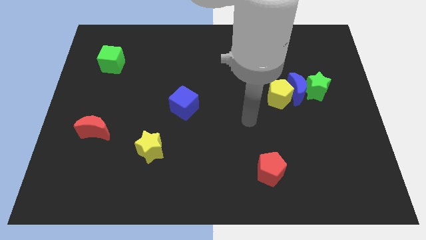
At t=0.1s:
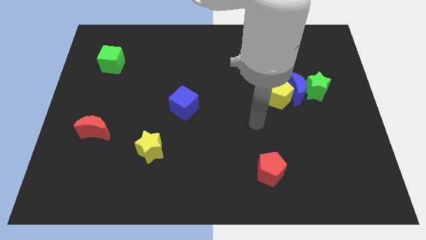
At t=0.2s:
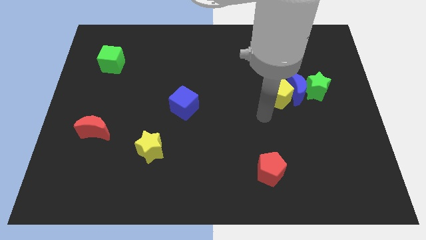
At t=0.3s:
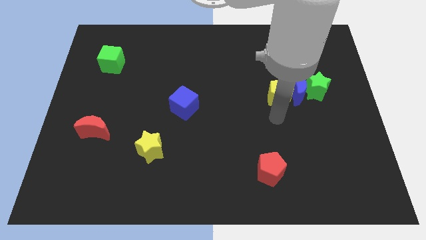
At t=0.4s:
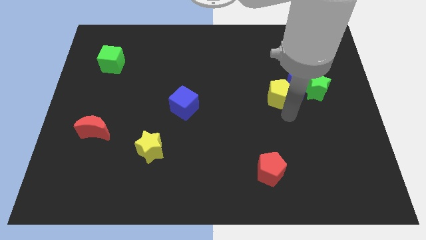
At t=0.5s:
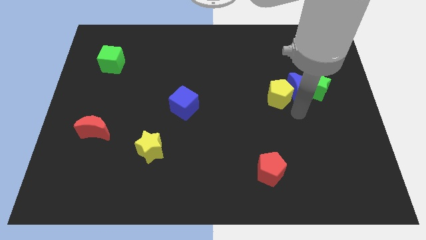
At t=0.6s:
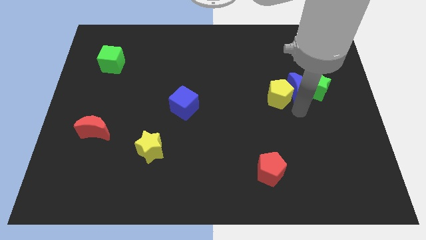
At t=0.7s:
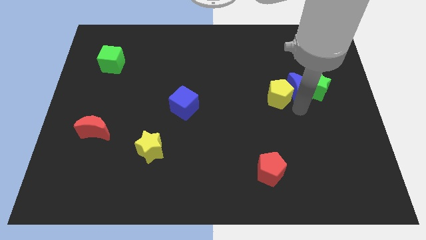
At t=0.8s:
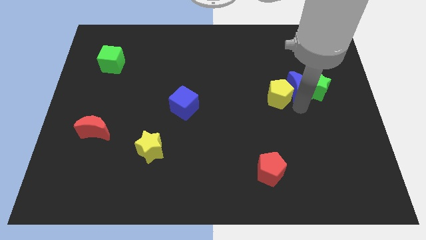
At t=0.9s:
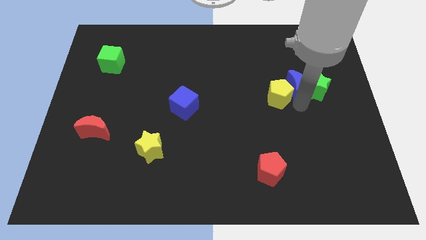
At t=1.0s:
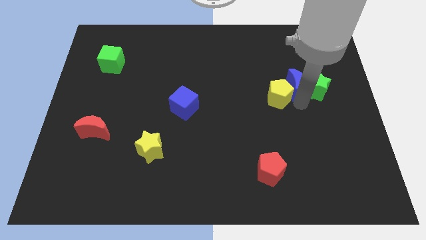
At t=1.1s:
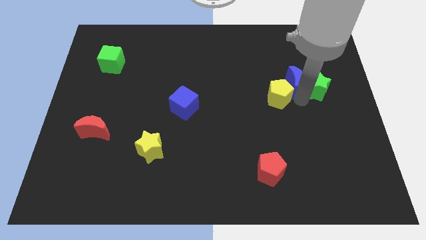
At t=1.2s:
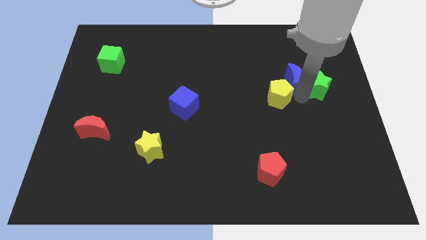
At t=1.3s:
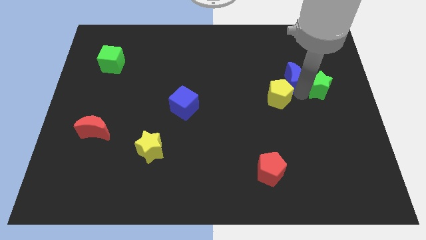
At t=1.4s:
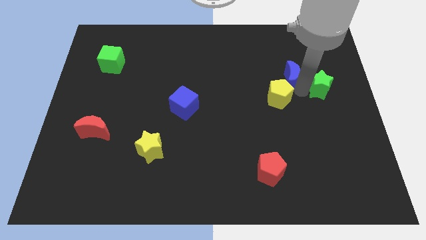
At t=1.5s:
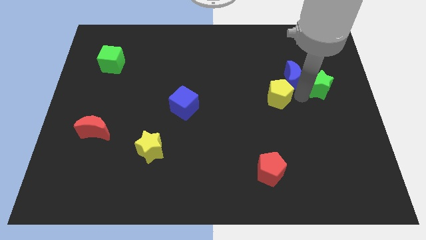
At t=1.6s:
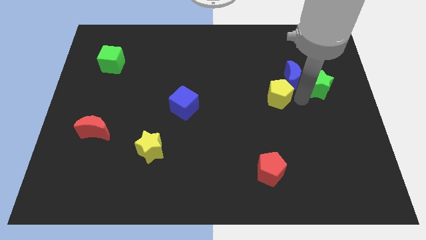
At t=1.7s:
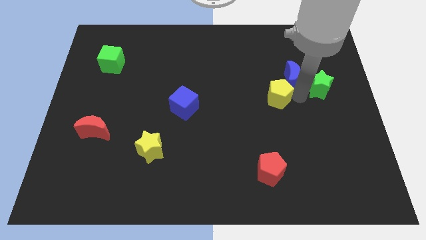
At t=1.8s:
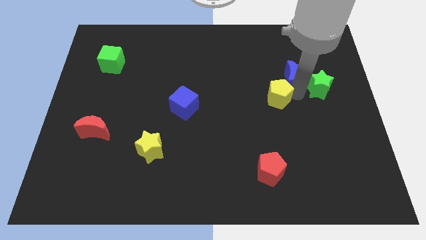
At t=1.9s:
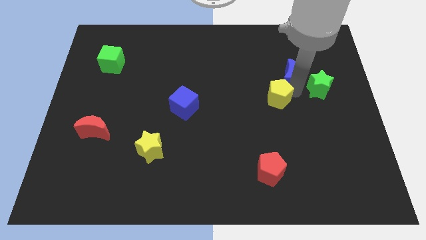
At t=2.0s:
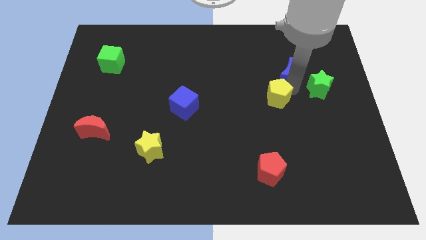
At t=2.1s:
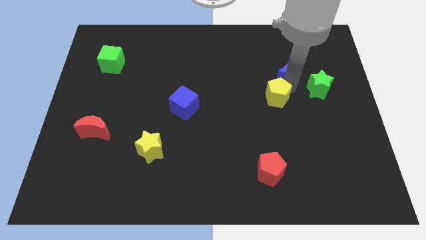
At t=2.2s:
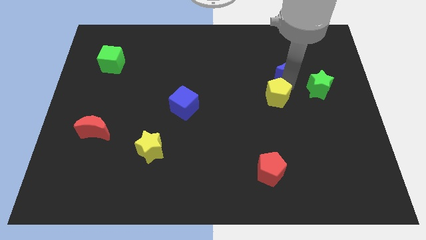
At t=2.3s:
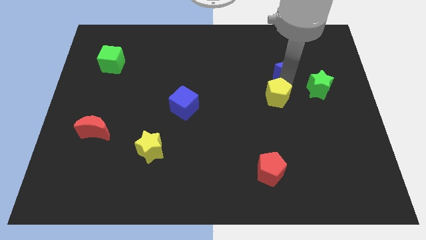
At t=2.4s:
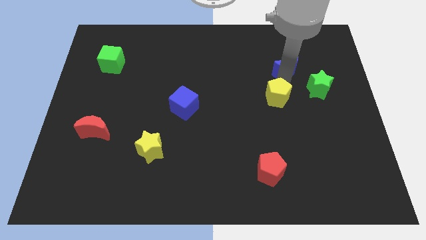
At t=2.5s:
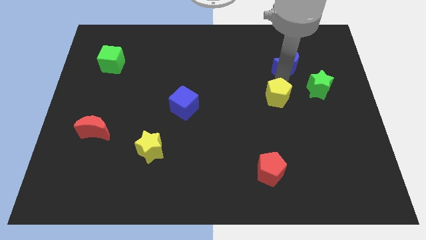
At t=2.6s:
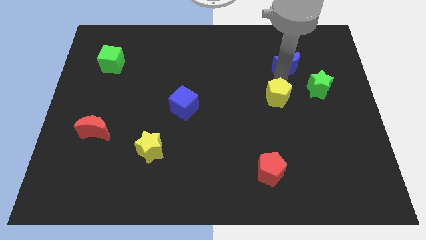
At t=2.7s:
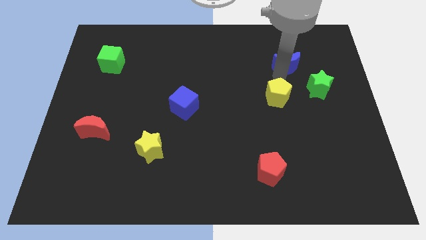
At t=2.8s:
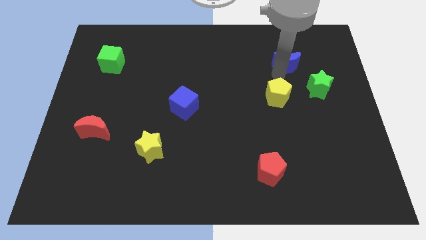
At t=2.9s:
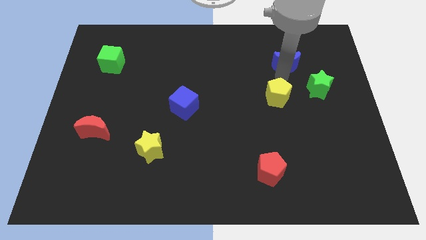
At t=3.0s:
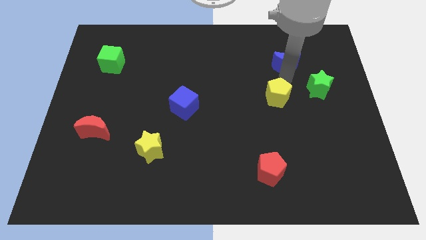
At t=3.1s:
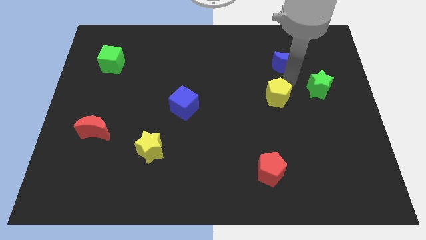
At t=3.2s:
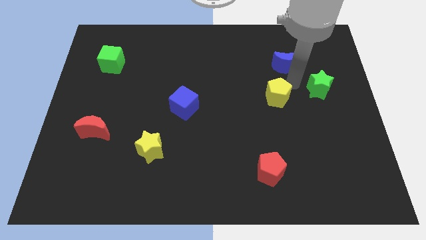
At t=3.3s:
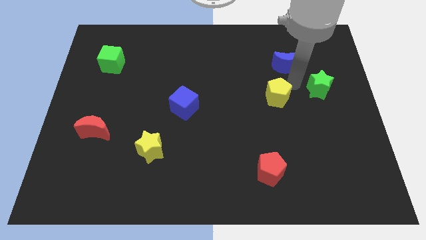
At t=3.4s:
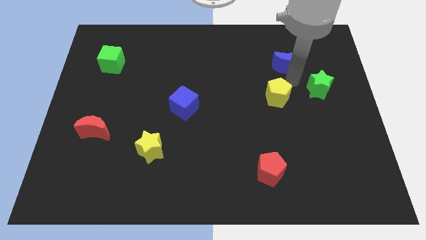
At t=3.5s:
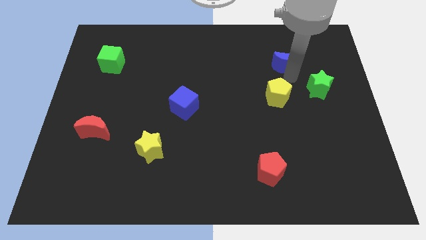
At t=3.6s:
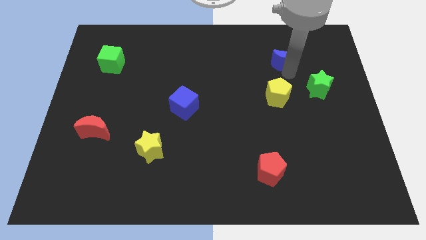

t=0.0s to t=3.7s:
pull the blue moon apart from the green star and yellow pentagon

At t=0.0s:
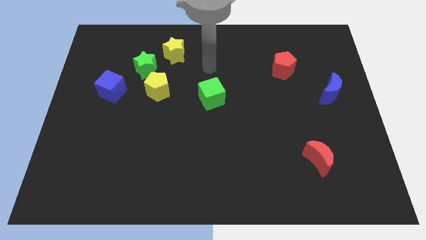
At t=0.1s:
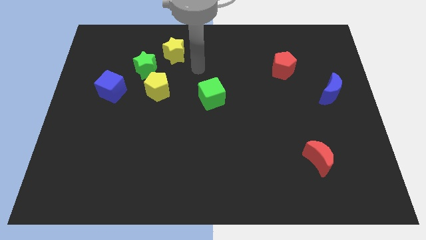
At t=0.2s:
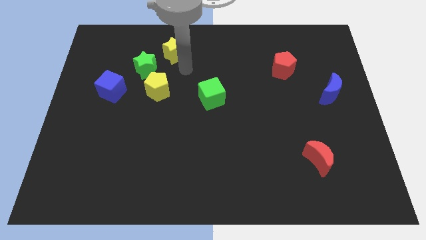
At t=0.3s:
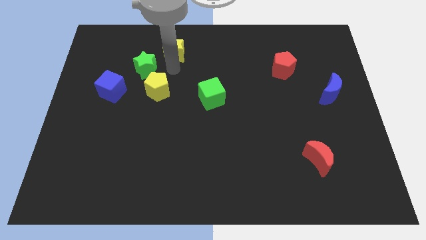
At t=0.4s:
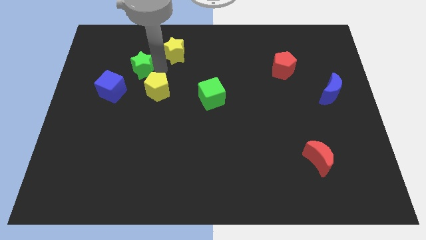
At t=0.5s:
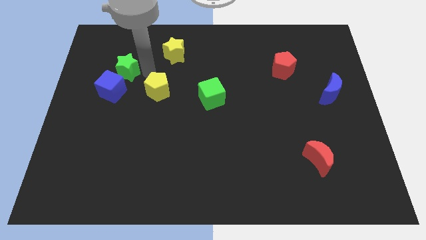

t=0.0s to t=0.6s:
pull the yellow pentagon apart from the green star

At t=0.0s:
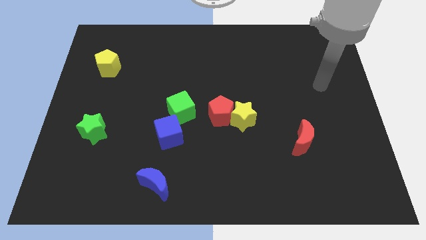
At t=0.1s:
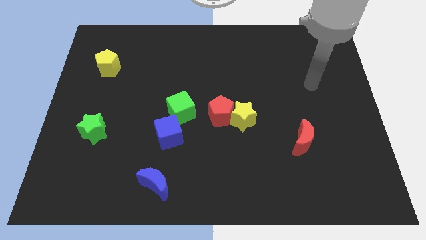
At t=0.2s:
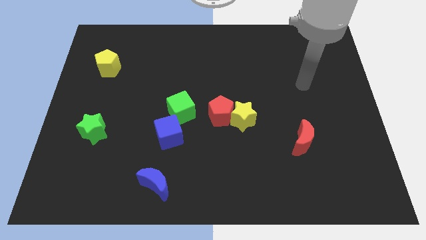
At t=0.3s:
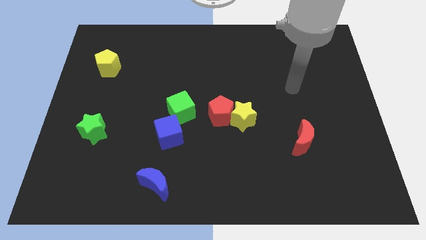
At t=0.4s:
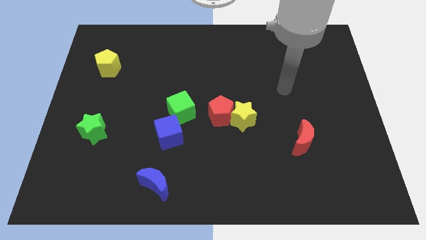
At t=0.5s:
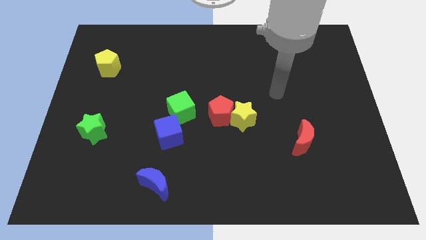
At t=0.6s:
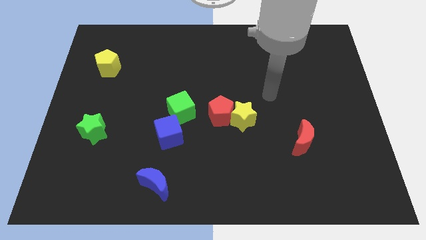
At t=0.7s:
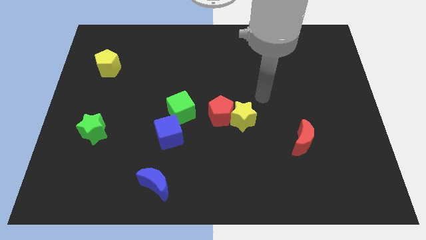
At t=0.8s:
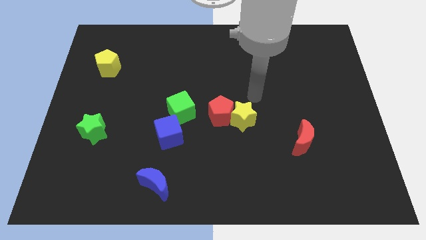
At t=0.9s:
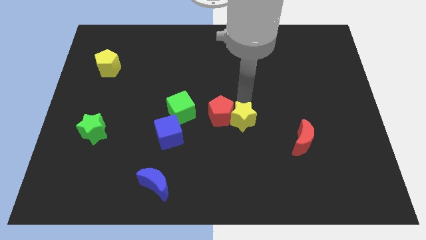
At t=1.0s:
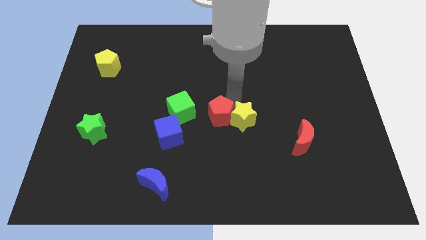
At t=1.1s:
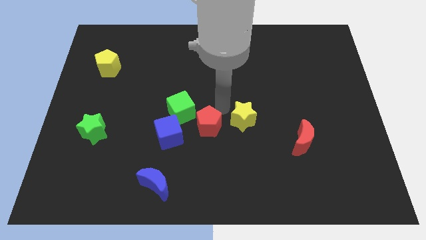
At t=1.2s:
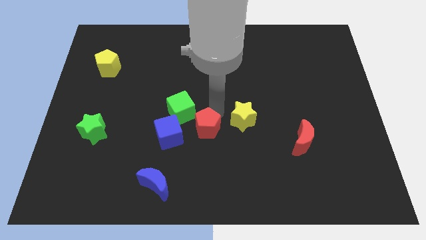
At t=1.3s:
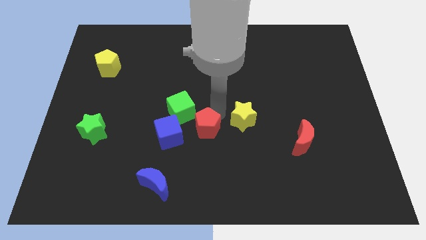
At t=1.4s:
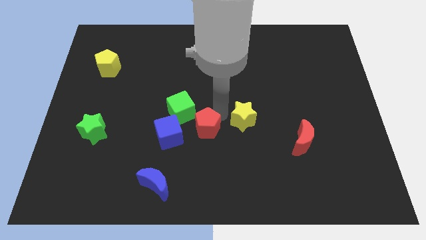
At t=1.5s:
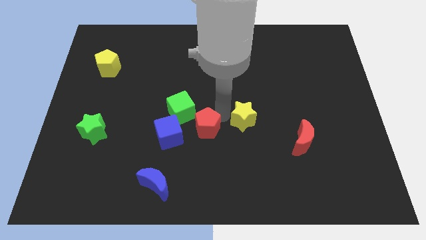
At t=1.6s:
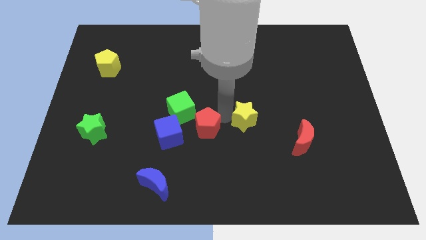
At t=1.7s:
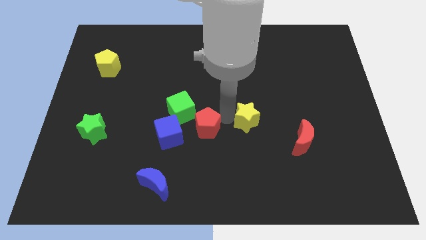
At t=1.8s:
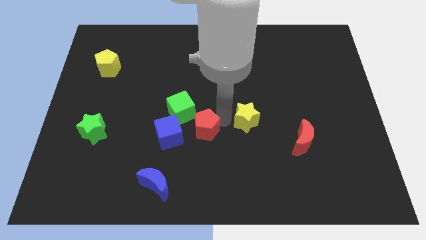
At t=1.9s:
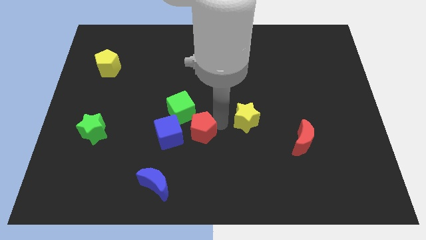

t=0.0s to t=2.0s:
separate the yellow star from the red pentagon

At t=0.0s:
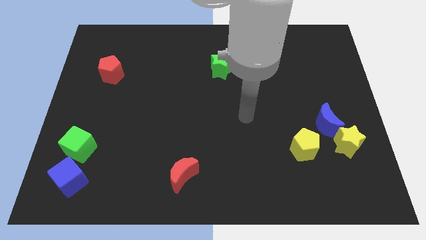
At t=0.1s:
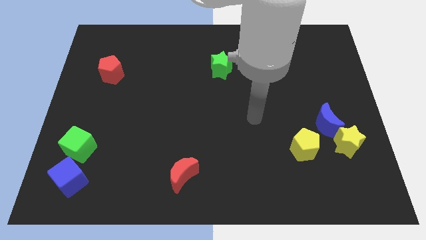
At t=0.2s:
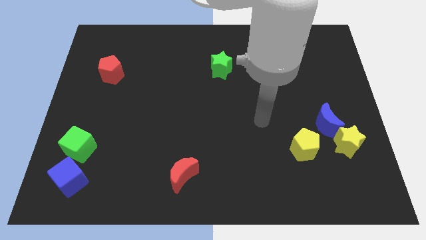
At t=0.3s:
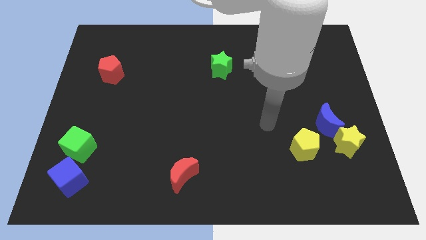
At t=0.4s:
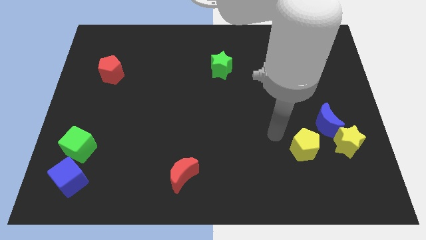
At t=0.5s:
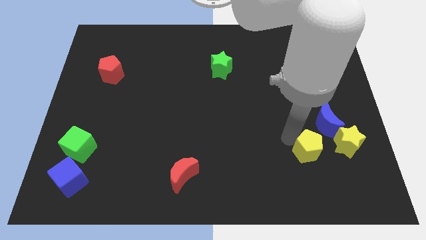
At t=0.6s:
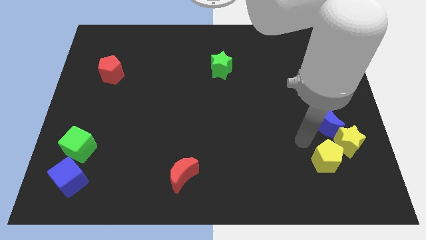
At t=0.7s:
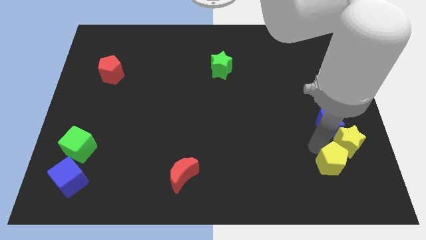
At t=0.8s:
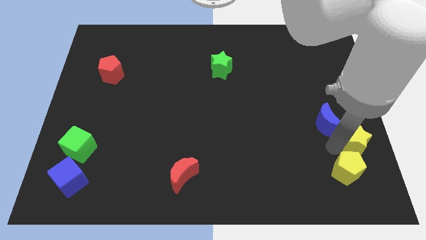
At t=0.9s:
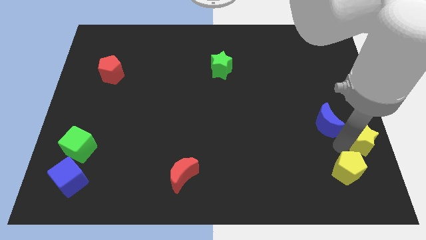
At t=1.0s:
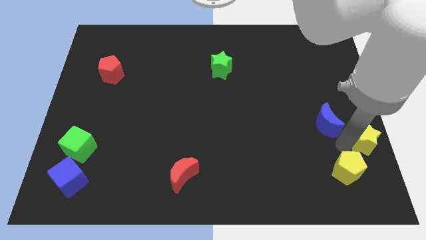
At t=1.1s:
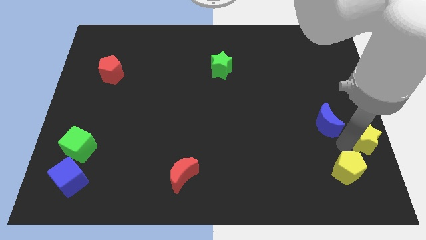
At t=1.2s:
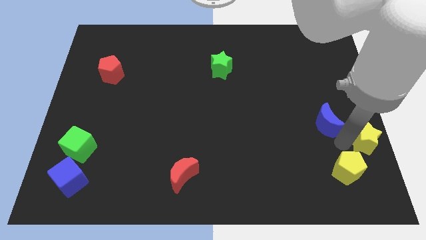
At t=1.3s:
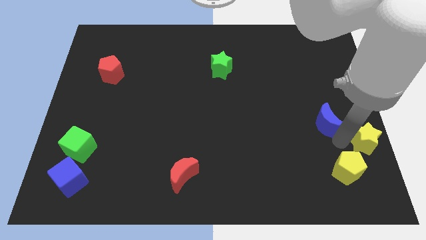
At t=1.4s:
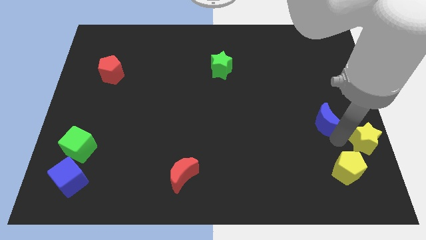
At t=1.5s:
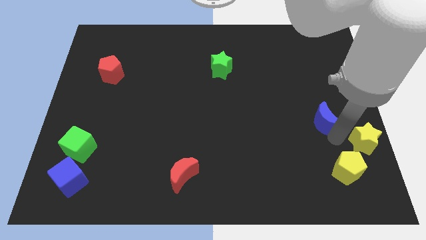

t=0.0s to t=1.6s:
separate the blue moon from the yellow star and yellow pentagon

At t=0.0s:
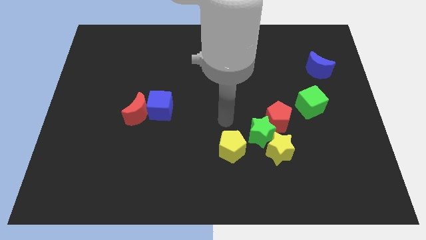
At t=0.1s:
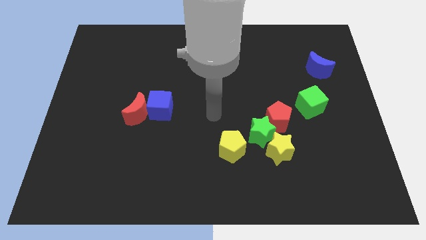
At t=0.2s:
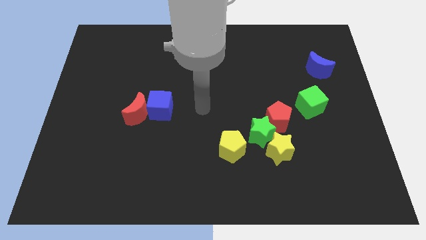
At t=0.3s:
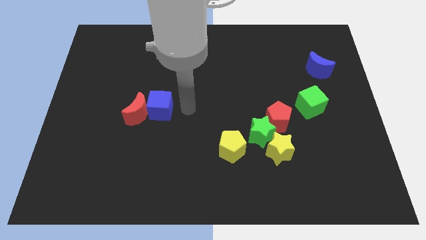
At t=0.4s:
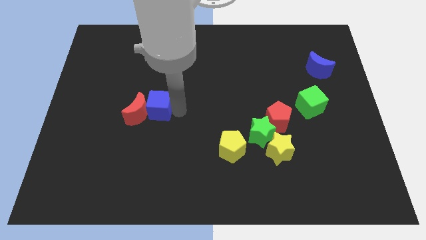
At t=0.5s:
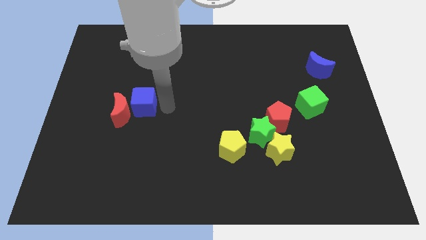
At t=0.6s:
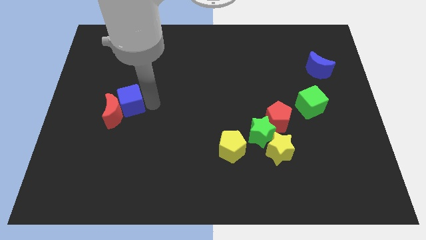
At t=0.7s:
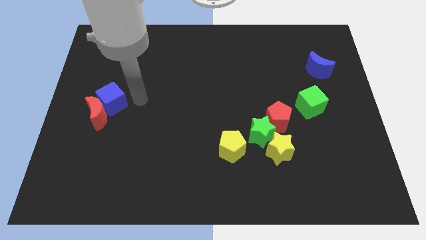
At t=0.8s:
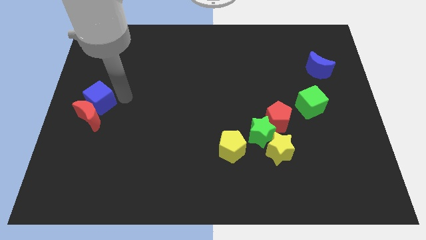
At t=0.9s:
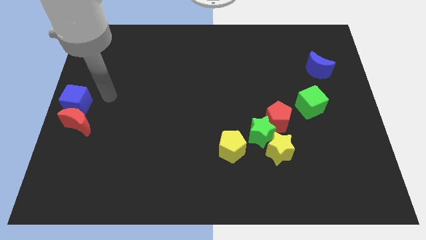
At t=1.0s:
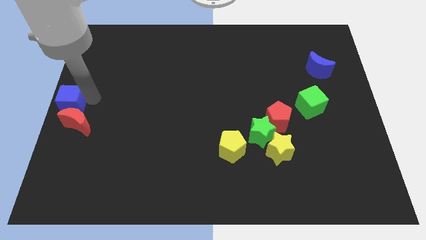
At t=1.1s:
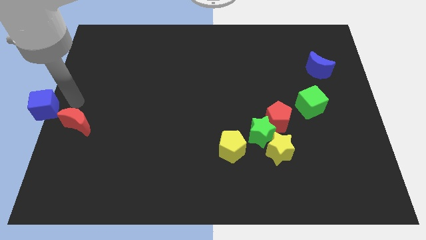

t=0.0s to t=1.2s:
pull the red moon apart from the blue cube

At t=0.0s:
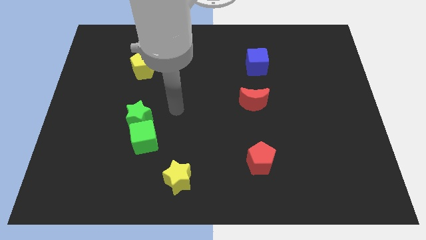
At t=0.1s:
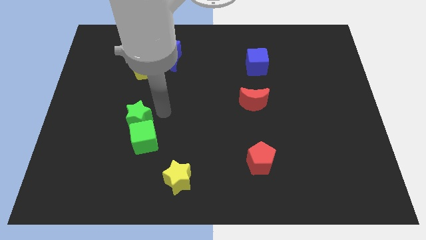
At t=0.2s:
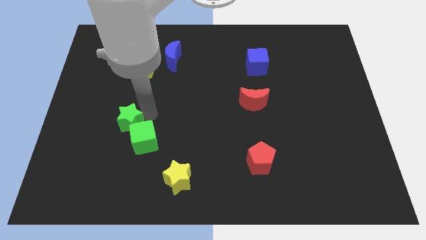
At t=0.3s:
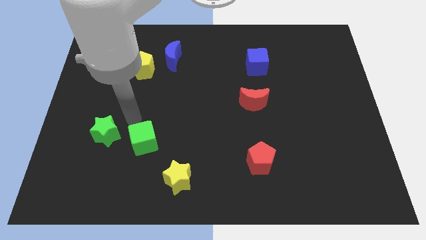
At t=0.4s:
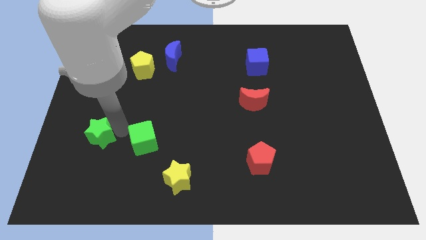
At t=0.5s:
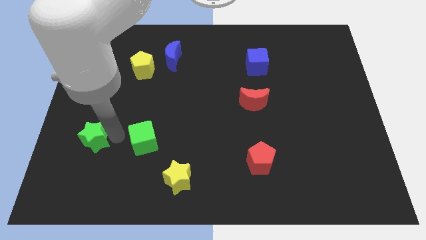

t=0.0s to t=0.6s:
move the green cube away from the green star
